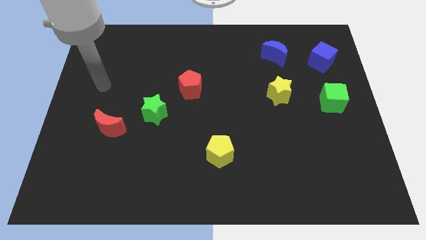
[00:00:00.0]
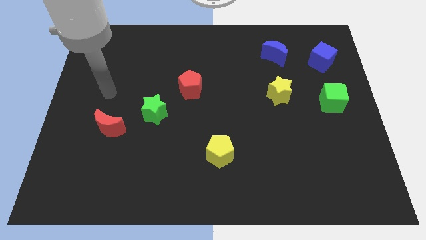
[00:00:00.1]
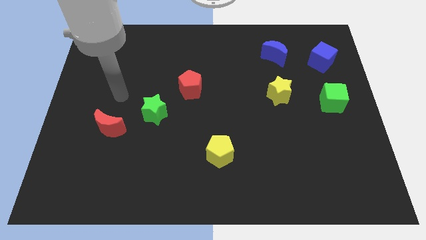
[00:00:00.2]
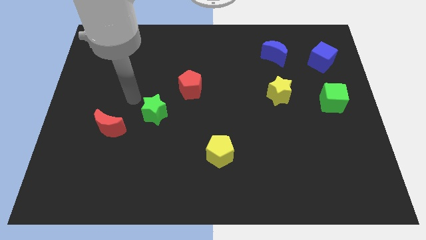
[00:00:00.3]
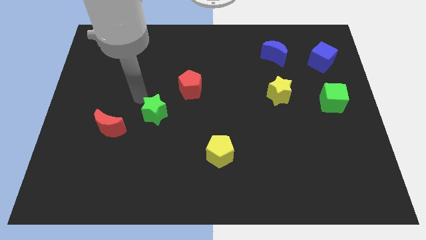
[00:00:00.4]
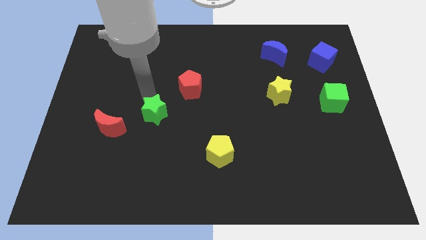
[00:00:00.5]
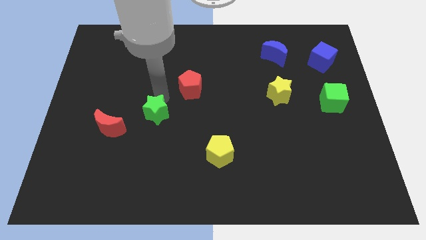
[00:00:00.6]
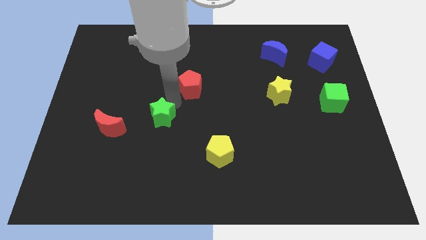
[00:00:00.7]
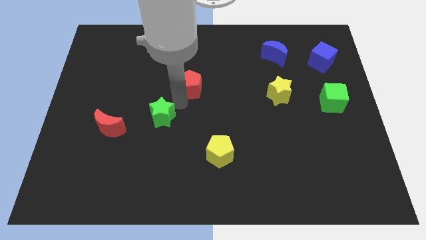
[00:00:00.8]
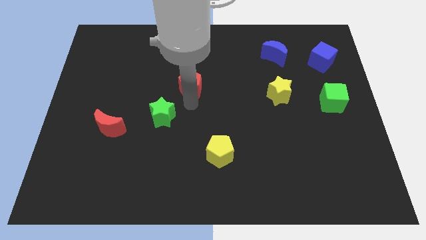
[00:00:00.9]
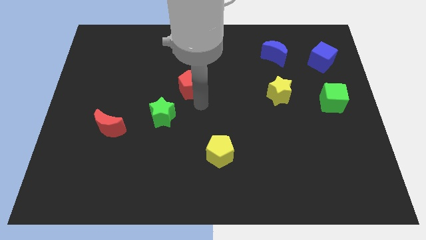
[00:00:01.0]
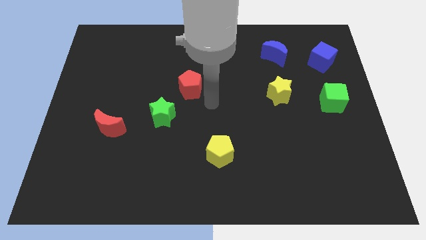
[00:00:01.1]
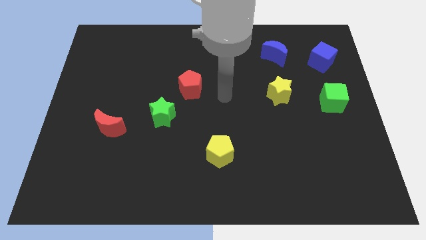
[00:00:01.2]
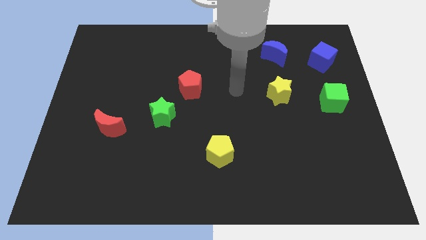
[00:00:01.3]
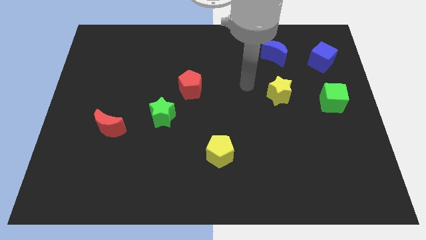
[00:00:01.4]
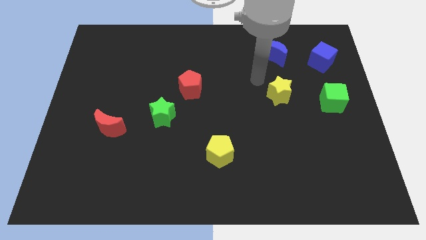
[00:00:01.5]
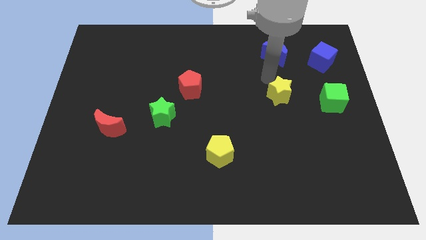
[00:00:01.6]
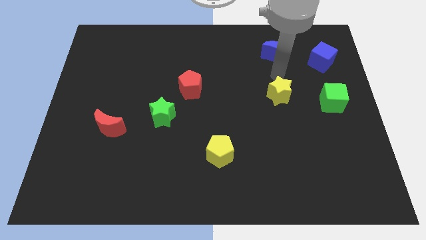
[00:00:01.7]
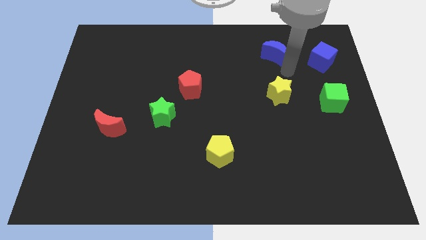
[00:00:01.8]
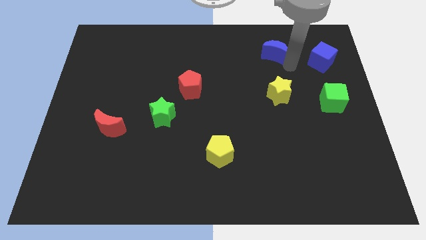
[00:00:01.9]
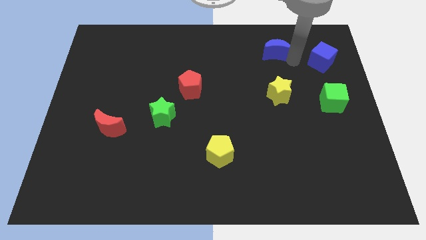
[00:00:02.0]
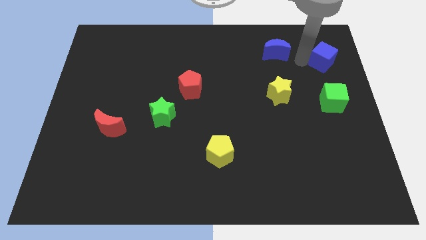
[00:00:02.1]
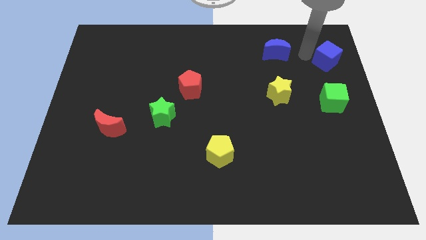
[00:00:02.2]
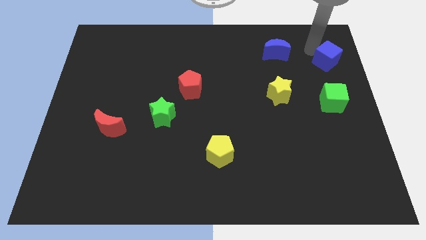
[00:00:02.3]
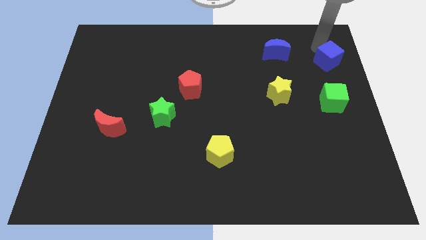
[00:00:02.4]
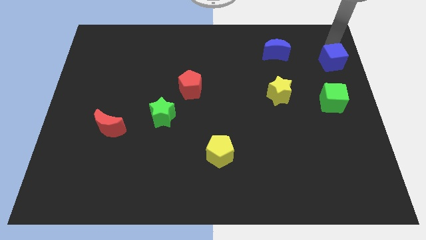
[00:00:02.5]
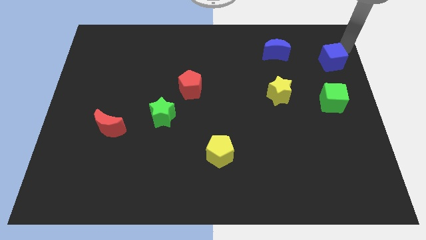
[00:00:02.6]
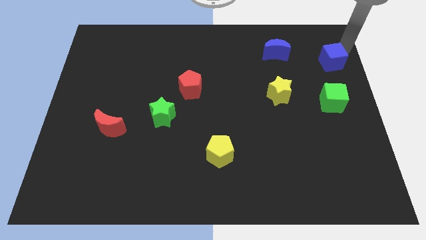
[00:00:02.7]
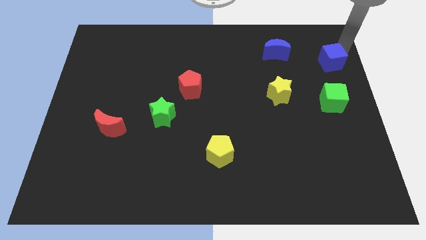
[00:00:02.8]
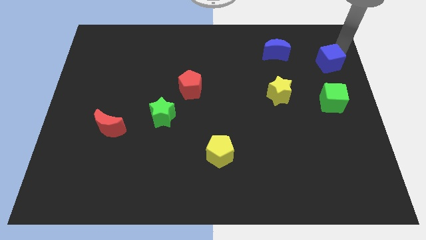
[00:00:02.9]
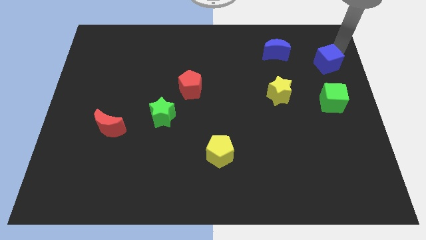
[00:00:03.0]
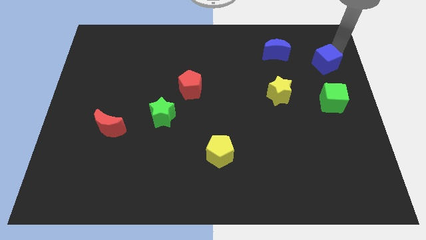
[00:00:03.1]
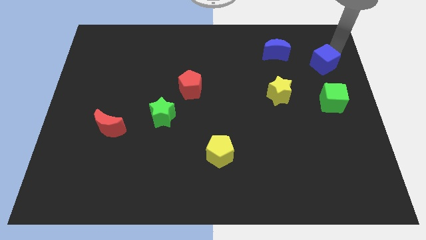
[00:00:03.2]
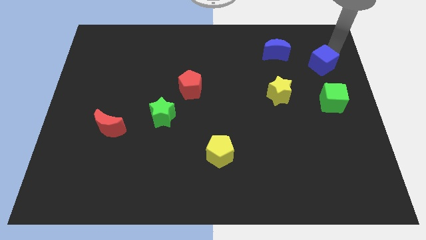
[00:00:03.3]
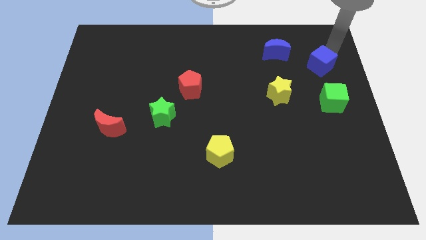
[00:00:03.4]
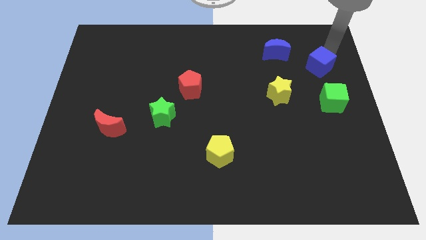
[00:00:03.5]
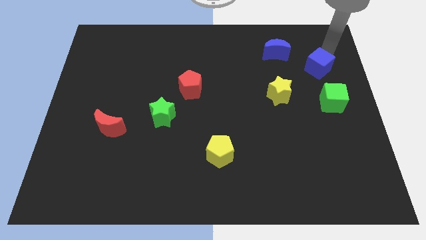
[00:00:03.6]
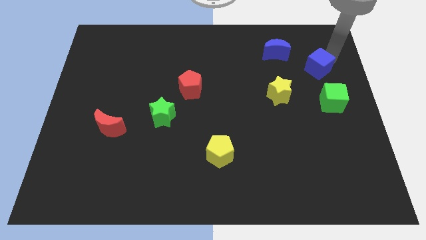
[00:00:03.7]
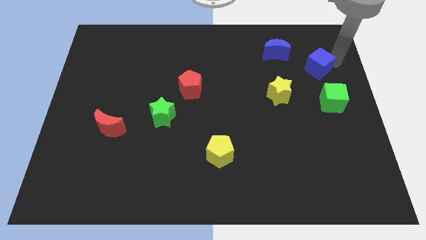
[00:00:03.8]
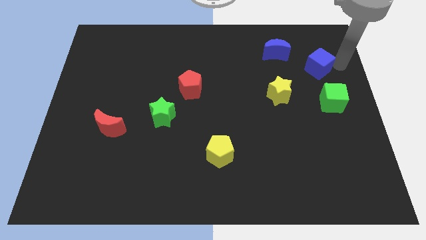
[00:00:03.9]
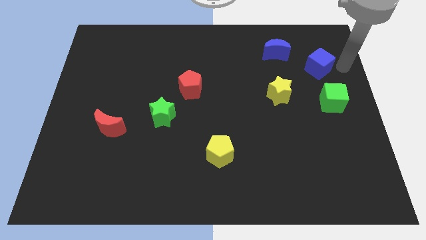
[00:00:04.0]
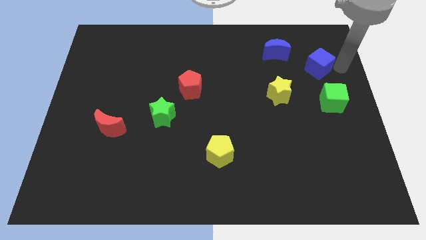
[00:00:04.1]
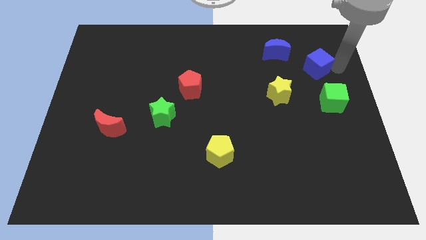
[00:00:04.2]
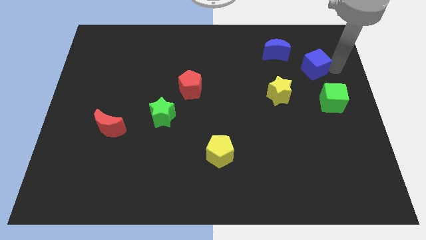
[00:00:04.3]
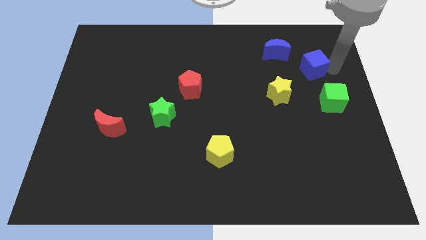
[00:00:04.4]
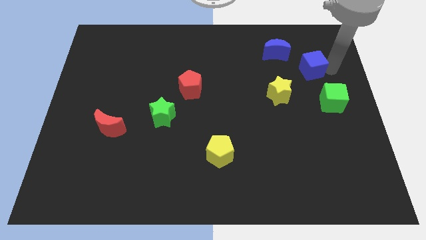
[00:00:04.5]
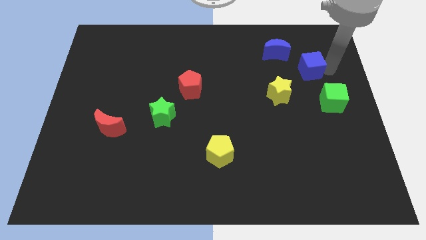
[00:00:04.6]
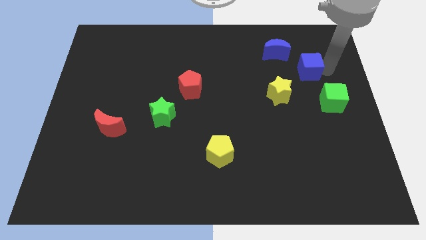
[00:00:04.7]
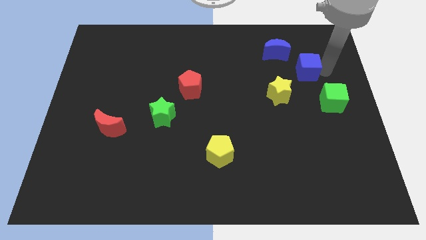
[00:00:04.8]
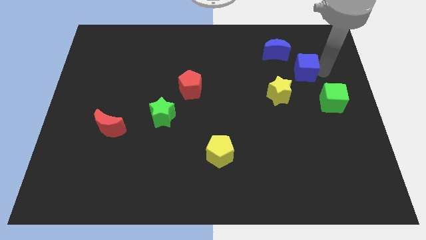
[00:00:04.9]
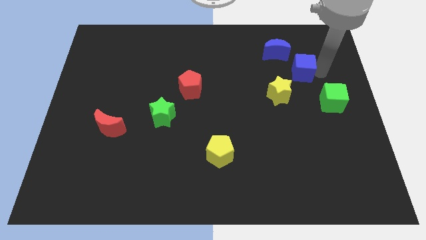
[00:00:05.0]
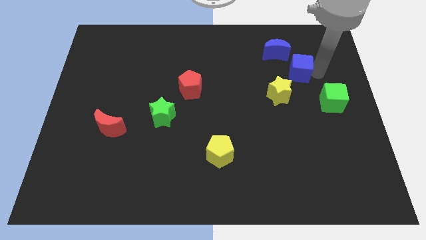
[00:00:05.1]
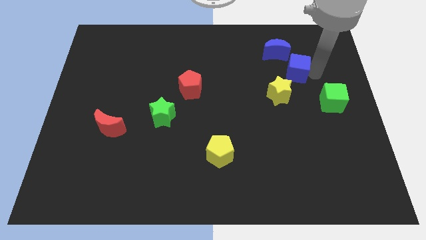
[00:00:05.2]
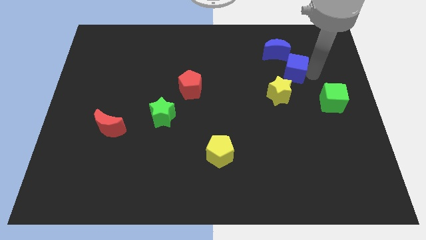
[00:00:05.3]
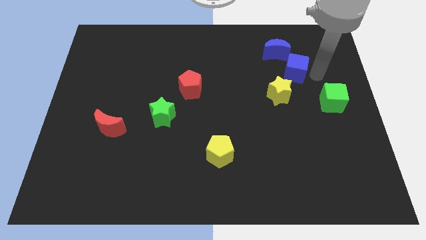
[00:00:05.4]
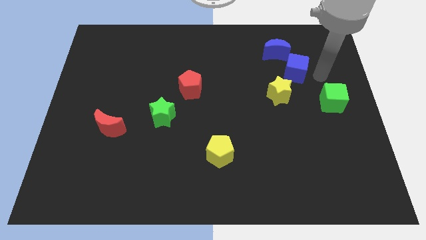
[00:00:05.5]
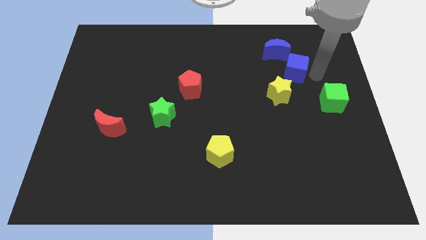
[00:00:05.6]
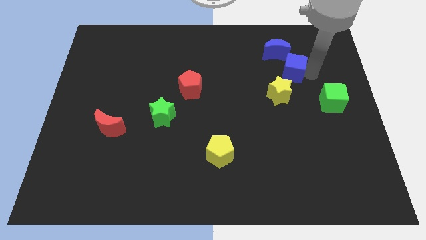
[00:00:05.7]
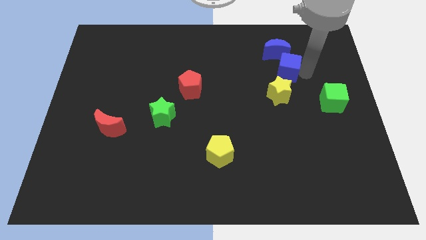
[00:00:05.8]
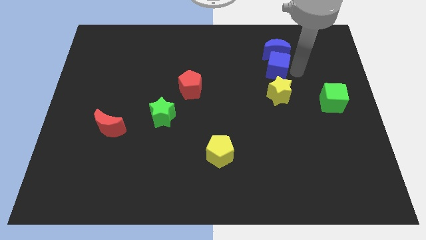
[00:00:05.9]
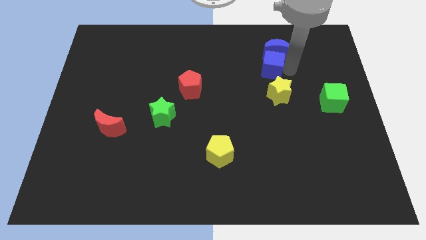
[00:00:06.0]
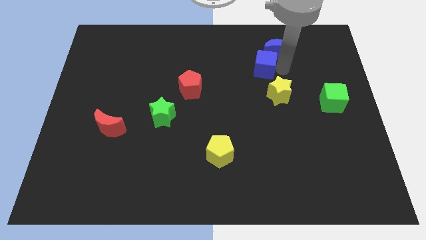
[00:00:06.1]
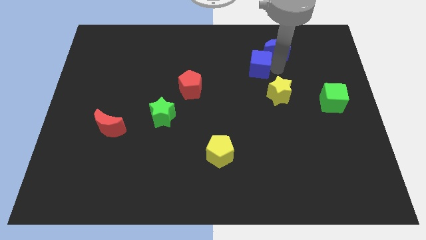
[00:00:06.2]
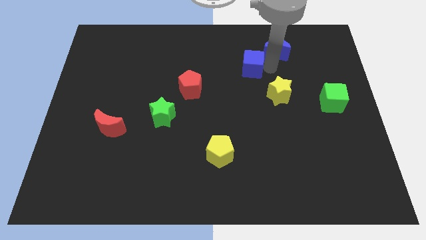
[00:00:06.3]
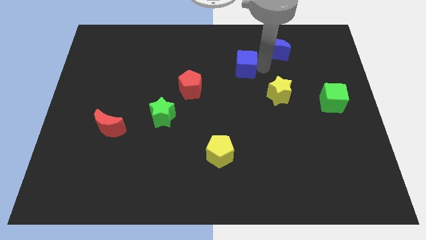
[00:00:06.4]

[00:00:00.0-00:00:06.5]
push the blue cube to the left

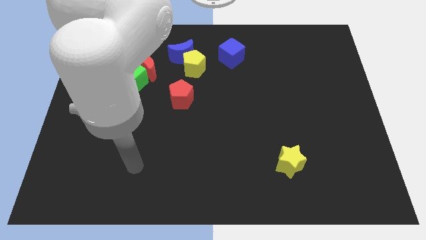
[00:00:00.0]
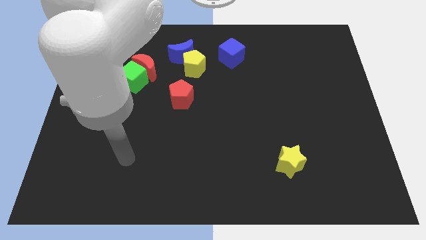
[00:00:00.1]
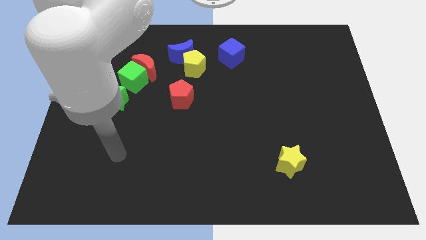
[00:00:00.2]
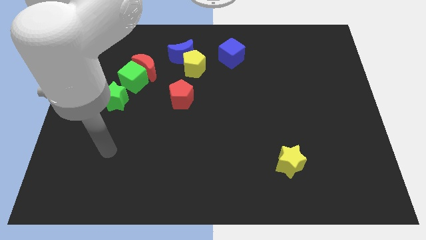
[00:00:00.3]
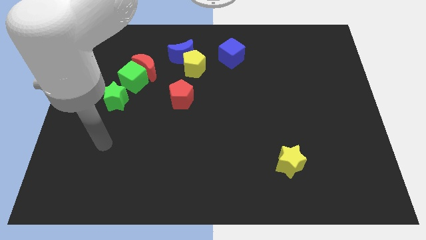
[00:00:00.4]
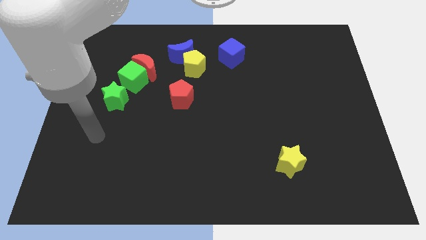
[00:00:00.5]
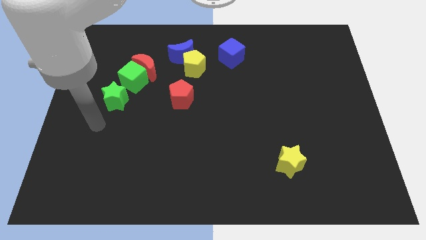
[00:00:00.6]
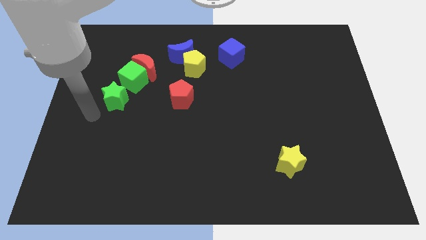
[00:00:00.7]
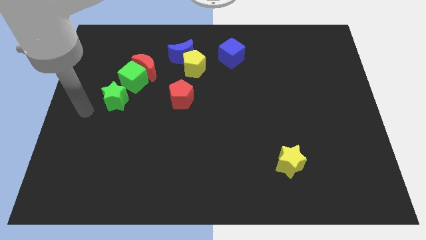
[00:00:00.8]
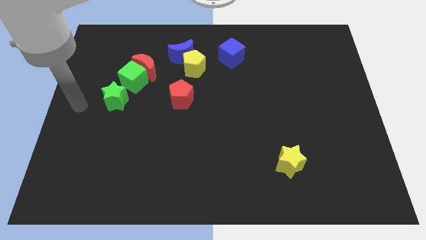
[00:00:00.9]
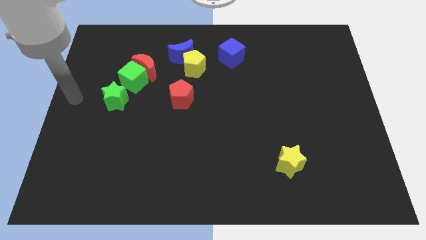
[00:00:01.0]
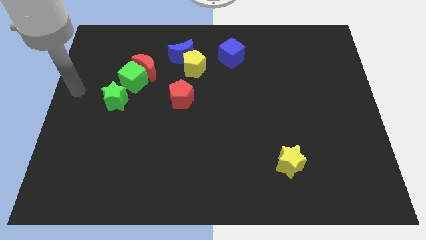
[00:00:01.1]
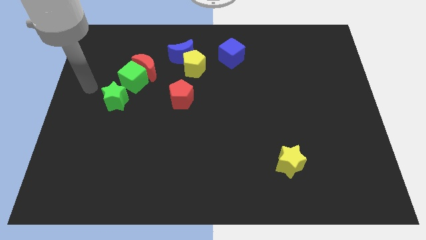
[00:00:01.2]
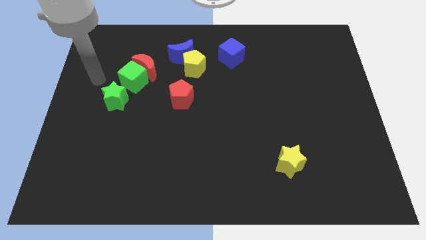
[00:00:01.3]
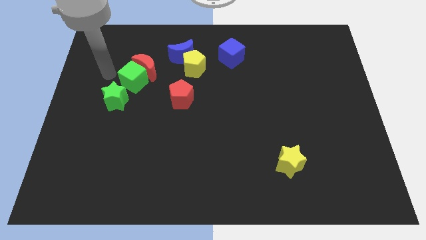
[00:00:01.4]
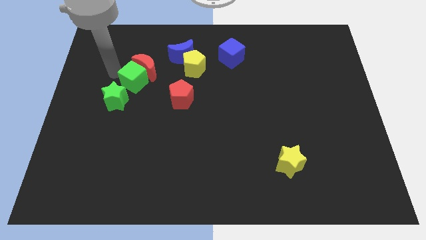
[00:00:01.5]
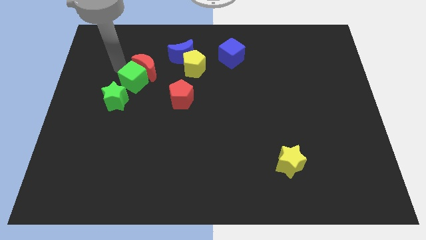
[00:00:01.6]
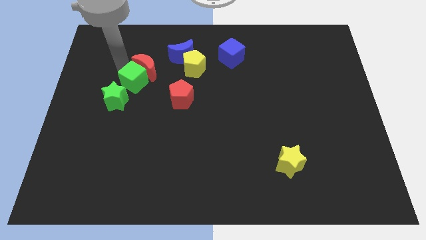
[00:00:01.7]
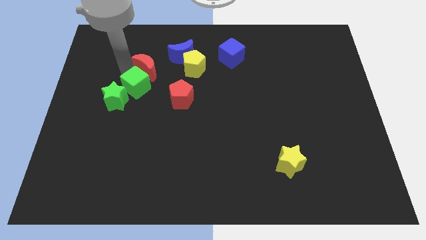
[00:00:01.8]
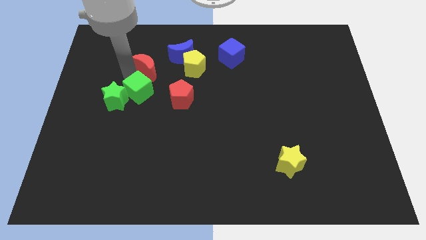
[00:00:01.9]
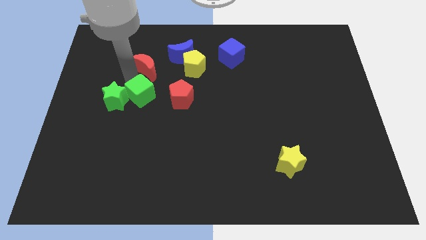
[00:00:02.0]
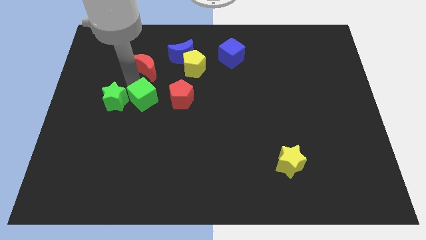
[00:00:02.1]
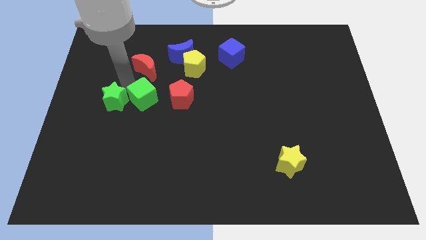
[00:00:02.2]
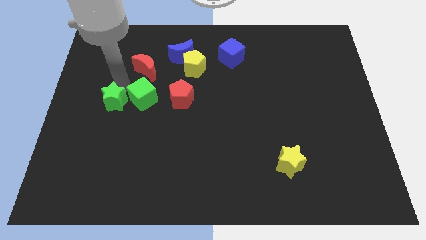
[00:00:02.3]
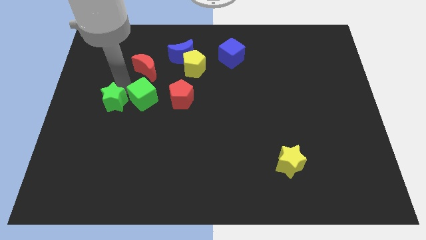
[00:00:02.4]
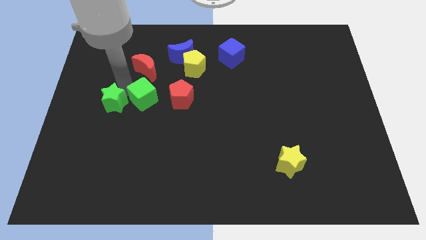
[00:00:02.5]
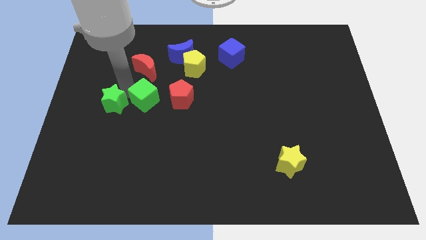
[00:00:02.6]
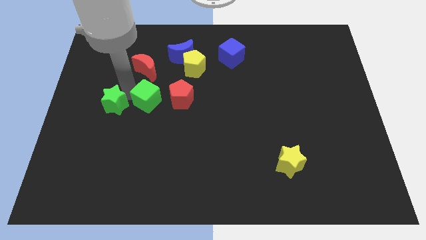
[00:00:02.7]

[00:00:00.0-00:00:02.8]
slide the green cube a little bit downwards and then to the right
